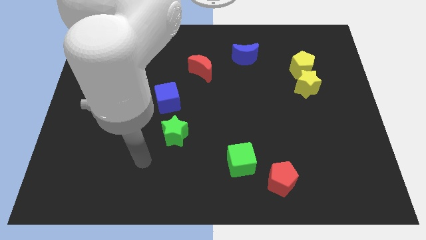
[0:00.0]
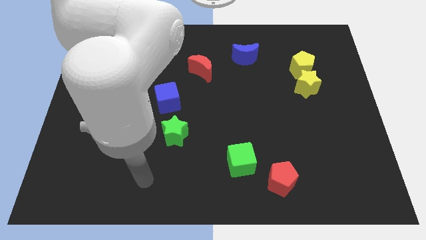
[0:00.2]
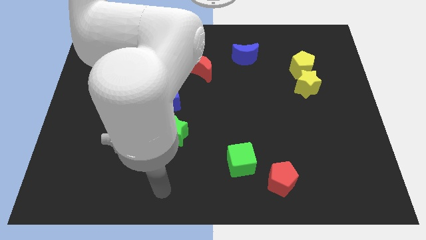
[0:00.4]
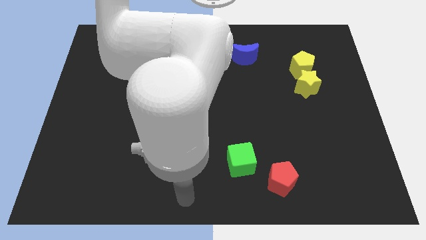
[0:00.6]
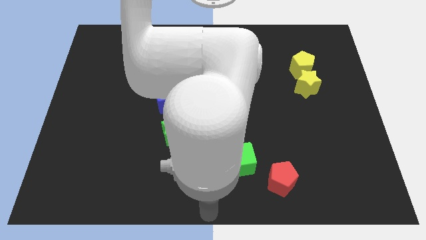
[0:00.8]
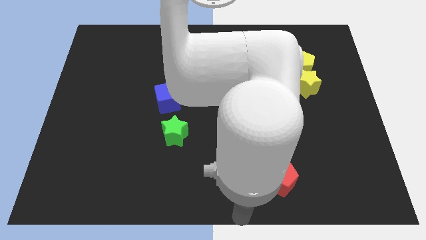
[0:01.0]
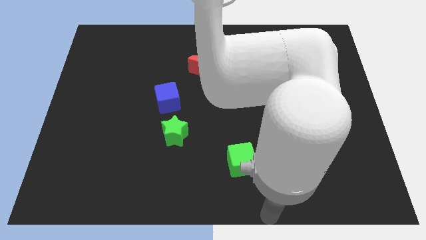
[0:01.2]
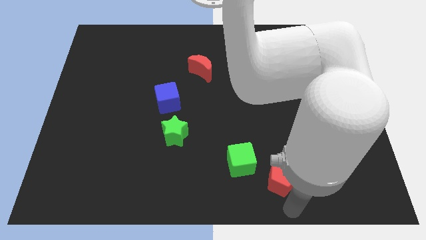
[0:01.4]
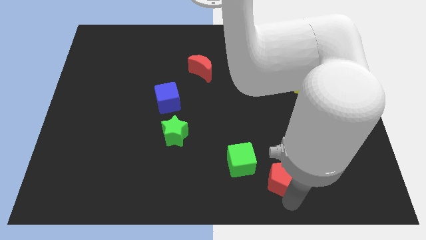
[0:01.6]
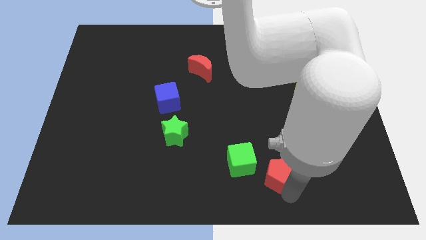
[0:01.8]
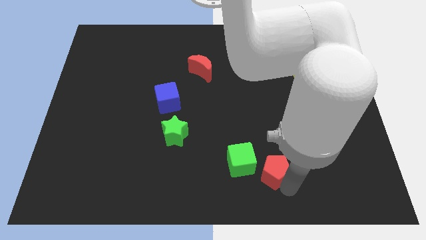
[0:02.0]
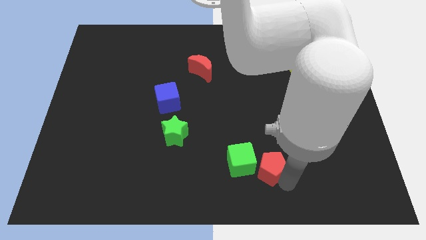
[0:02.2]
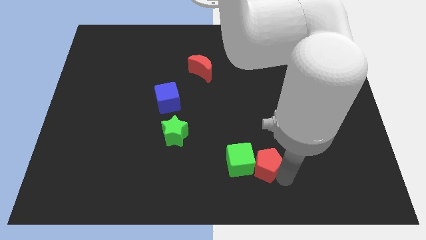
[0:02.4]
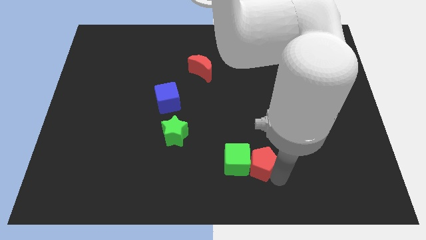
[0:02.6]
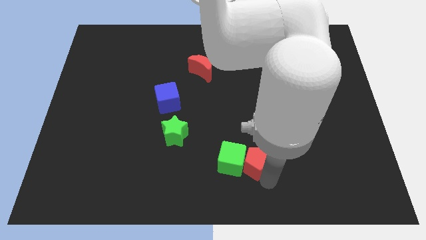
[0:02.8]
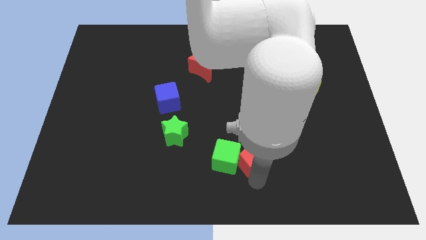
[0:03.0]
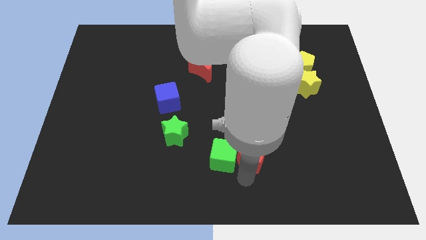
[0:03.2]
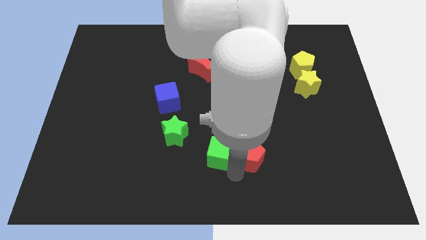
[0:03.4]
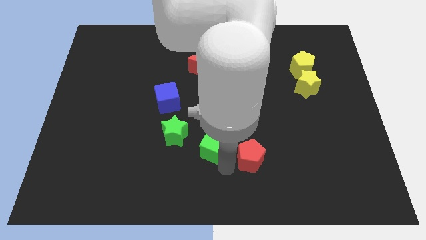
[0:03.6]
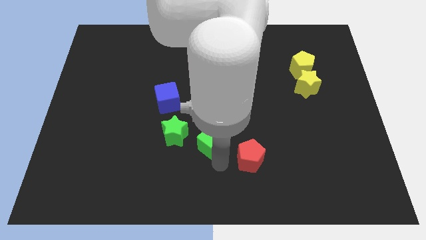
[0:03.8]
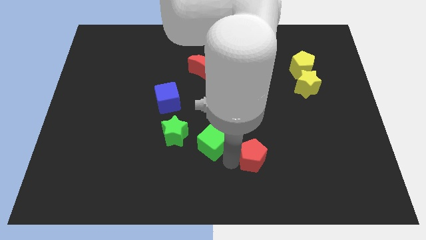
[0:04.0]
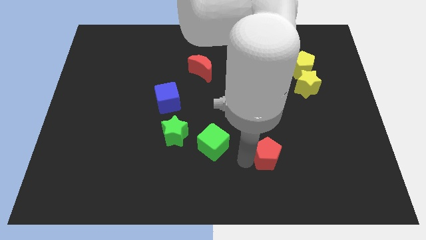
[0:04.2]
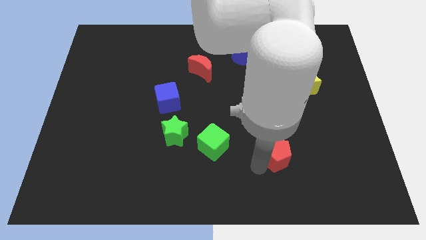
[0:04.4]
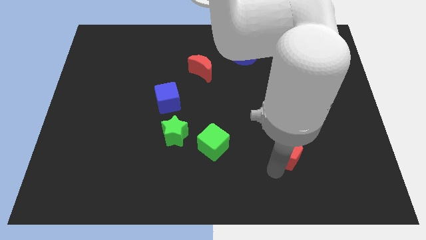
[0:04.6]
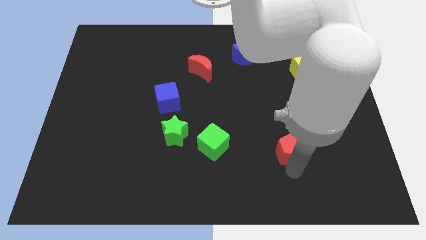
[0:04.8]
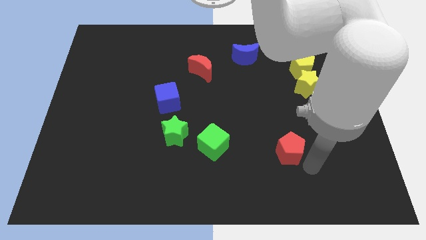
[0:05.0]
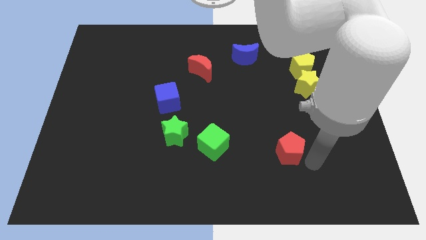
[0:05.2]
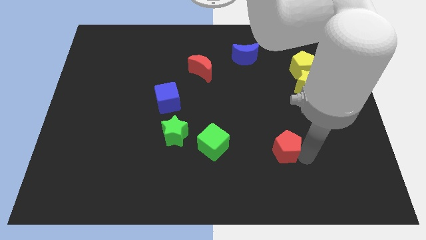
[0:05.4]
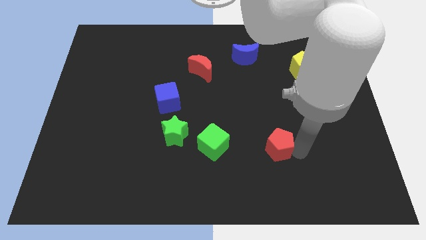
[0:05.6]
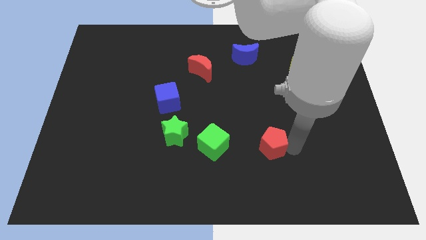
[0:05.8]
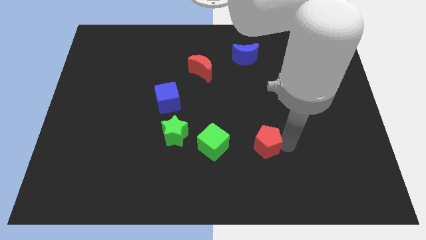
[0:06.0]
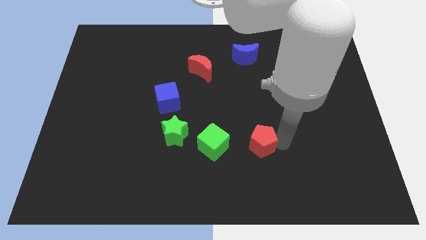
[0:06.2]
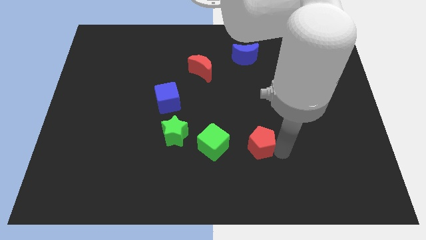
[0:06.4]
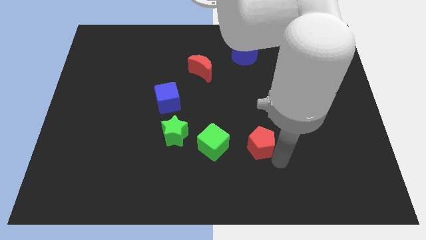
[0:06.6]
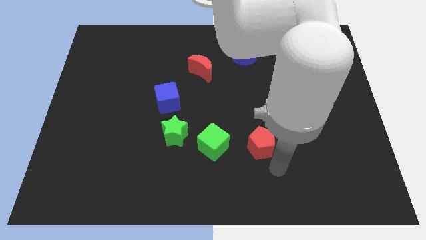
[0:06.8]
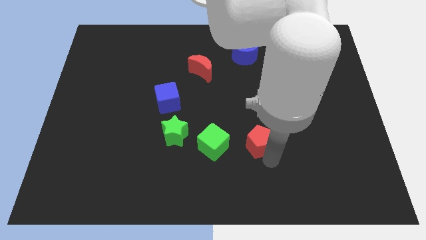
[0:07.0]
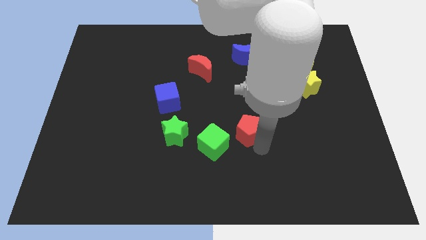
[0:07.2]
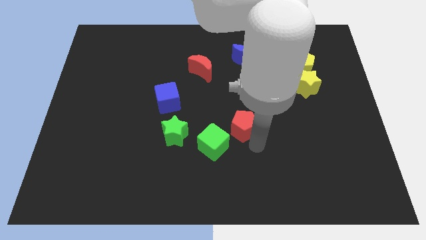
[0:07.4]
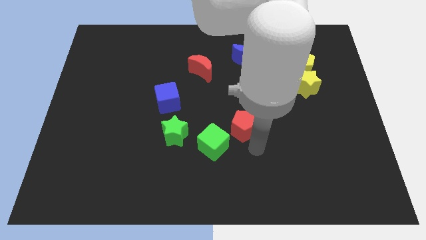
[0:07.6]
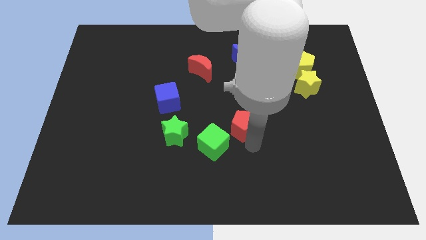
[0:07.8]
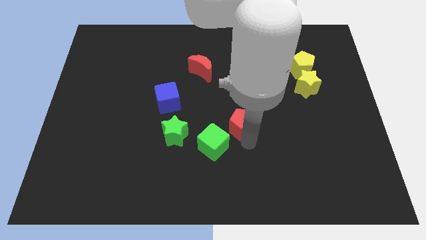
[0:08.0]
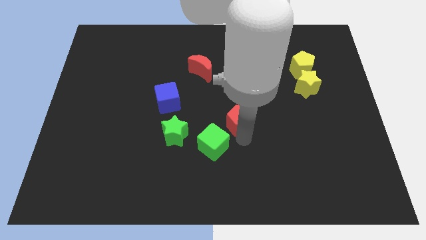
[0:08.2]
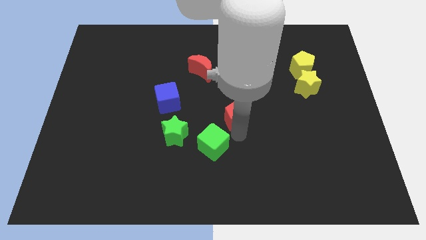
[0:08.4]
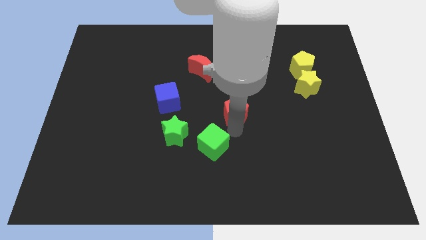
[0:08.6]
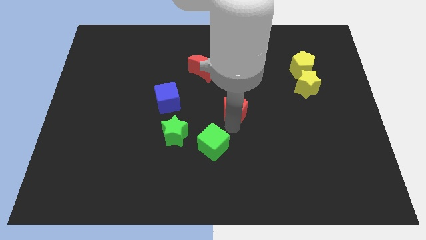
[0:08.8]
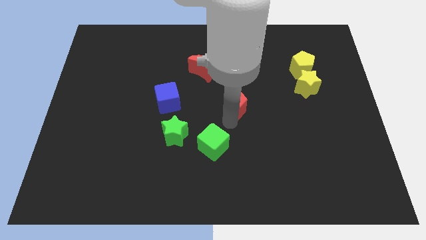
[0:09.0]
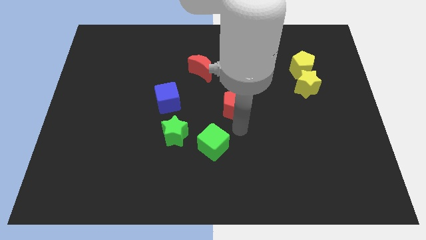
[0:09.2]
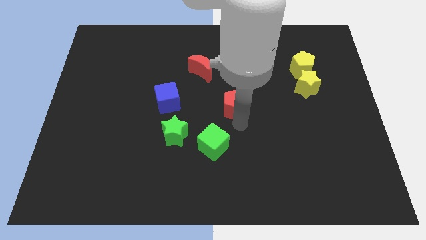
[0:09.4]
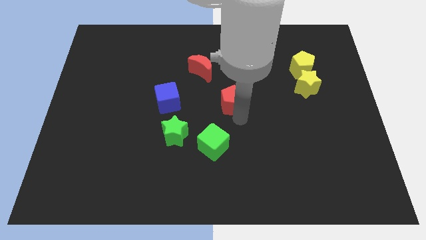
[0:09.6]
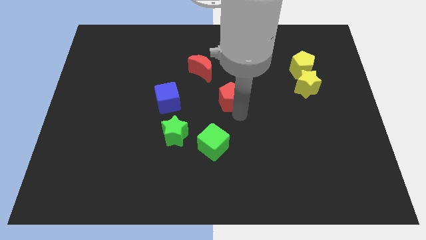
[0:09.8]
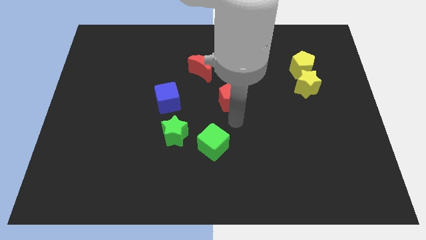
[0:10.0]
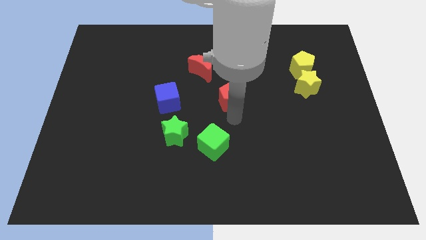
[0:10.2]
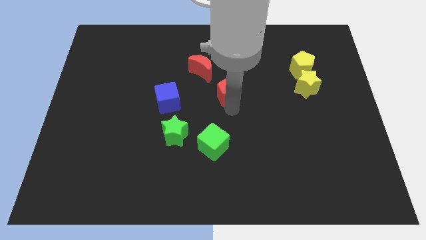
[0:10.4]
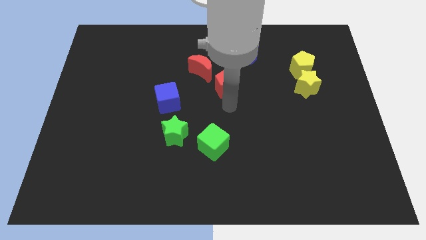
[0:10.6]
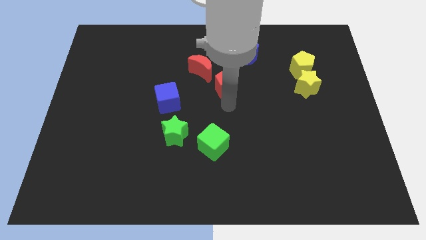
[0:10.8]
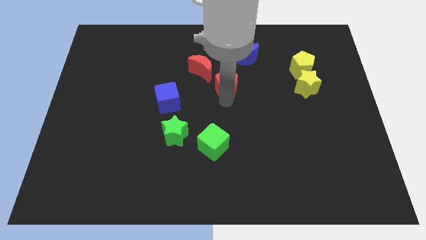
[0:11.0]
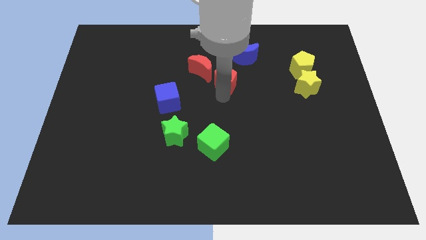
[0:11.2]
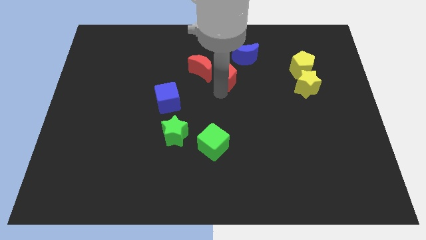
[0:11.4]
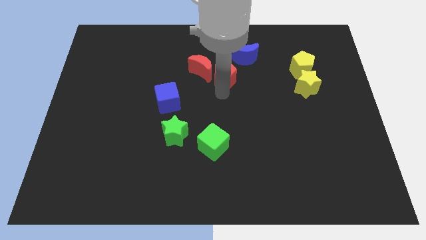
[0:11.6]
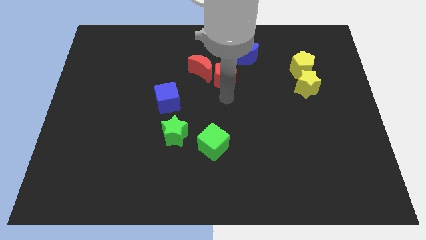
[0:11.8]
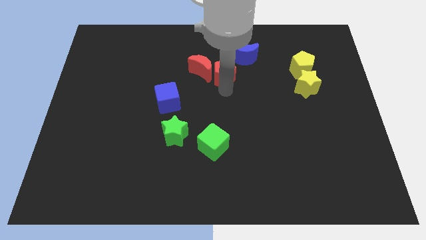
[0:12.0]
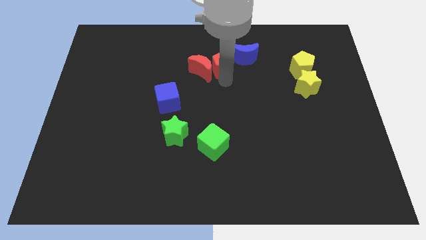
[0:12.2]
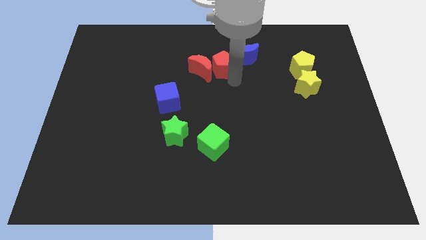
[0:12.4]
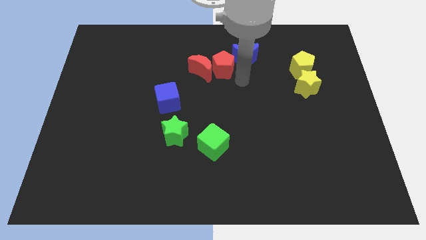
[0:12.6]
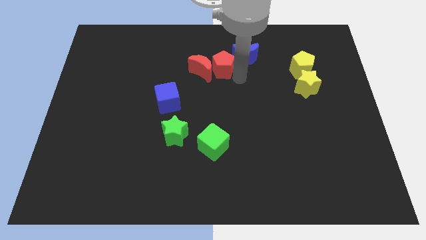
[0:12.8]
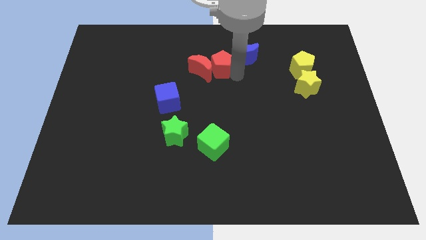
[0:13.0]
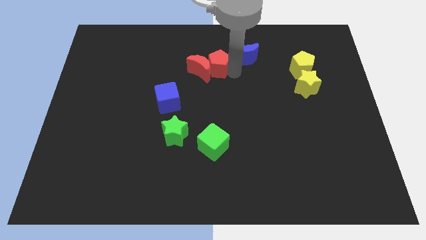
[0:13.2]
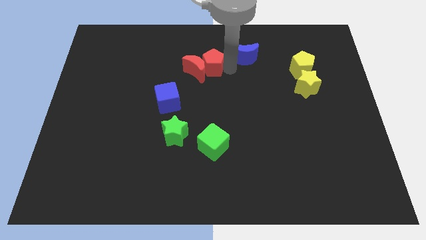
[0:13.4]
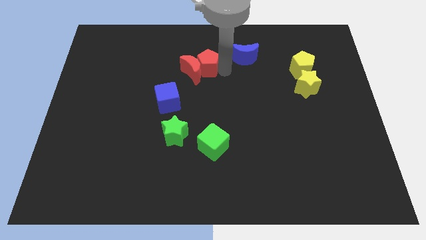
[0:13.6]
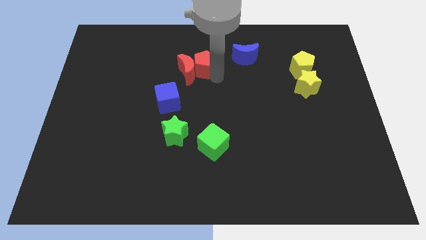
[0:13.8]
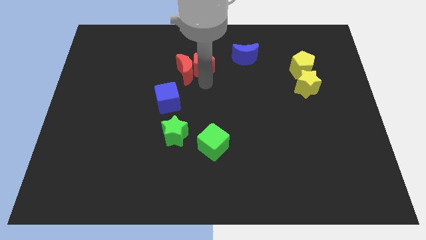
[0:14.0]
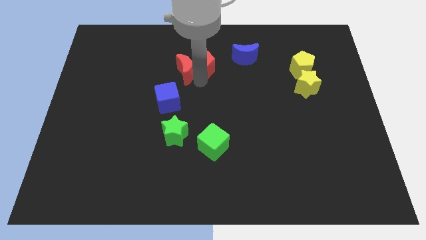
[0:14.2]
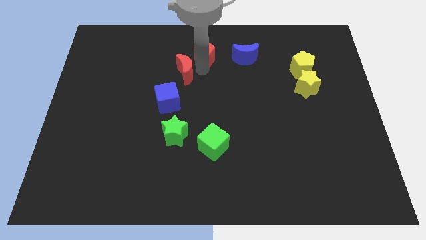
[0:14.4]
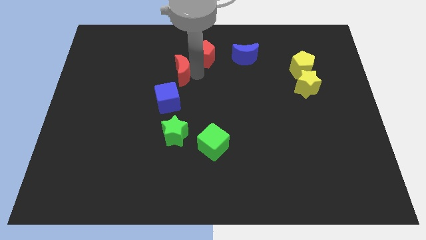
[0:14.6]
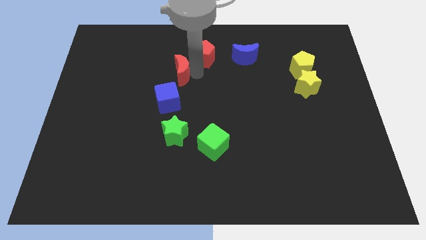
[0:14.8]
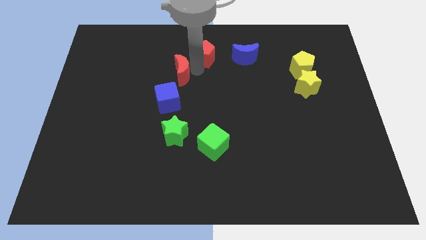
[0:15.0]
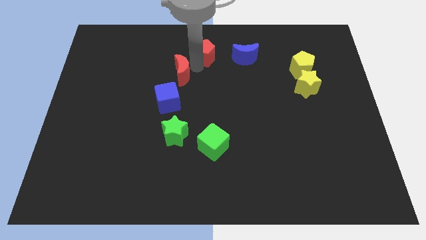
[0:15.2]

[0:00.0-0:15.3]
slide the red pentagon to the towards your base
